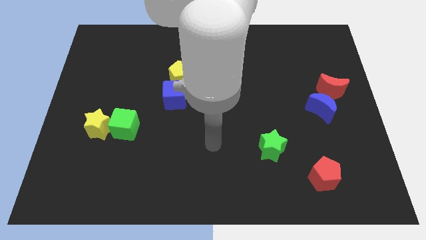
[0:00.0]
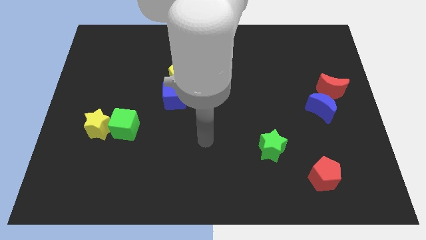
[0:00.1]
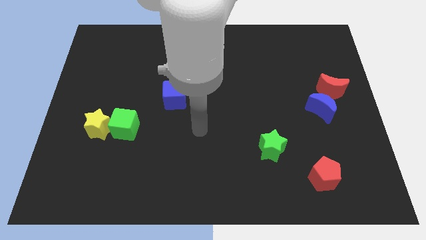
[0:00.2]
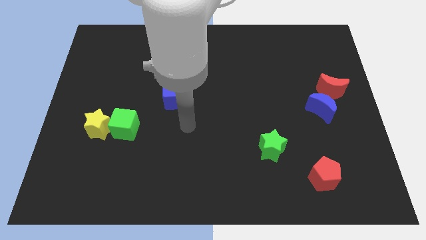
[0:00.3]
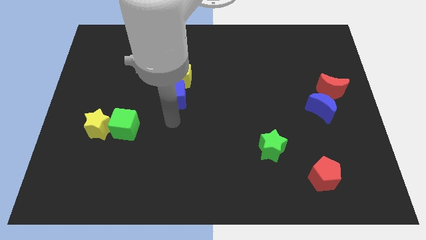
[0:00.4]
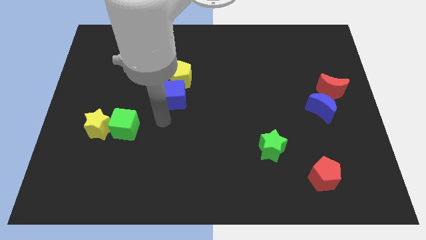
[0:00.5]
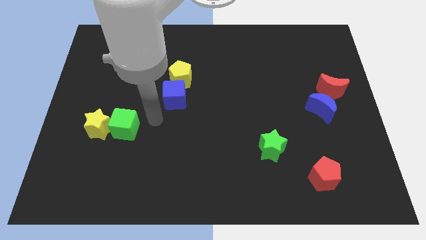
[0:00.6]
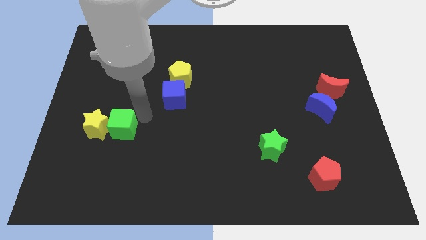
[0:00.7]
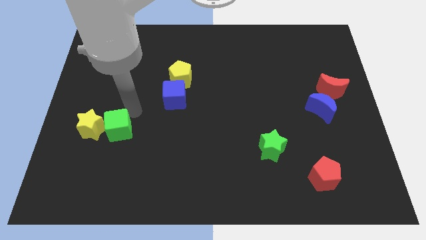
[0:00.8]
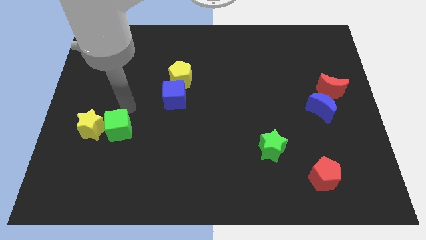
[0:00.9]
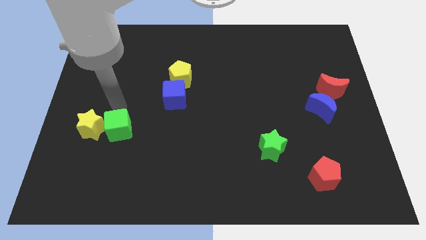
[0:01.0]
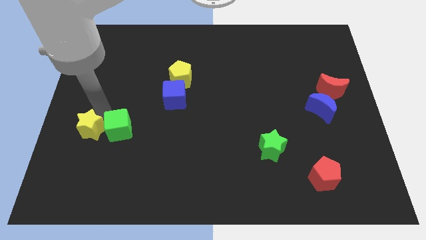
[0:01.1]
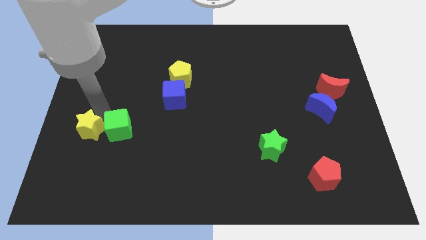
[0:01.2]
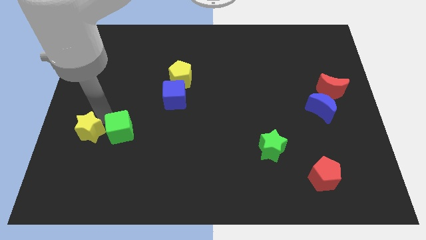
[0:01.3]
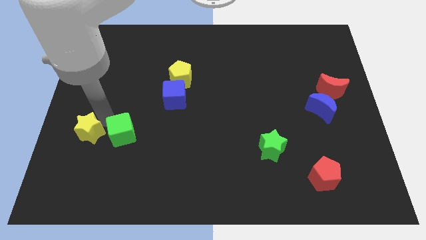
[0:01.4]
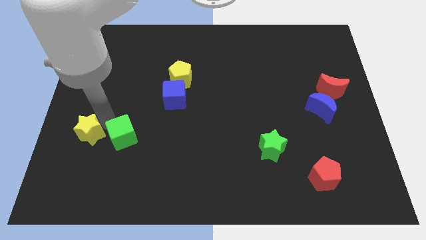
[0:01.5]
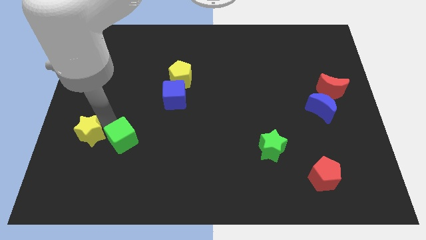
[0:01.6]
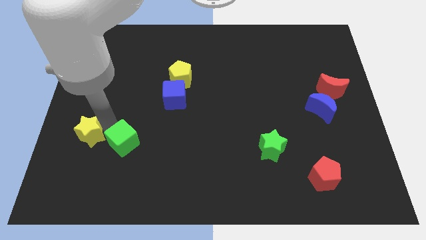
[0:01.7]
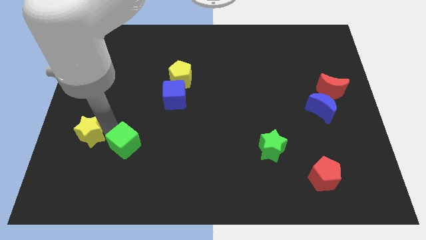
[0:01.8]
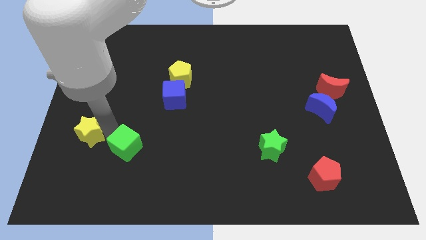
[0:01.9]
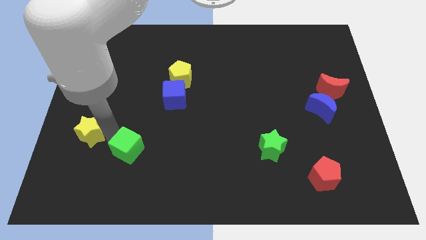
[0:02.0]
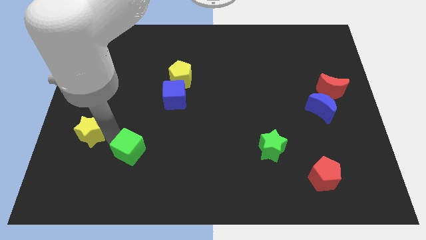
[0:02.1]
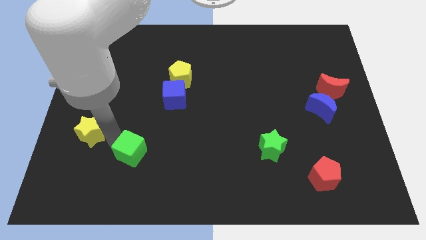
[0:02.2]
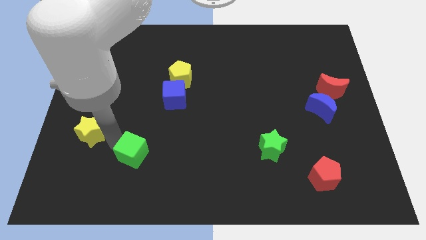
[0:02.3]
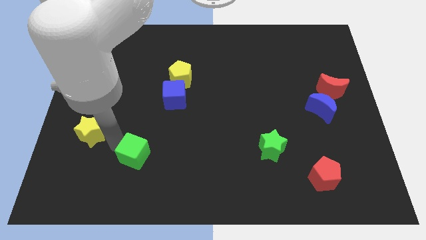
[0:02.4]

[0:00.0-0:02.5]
slide the green cube a little bit downwards and right

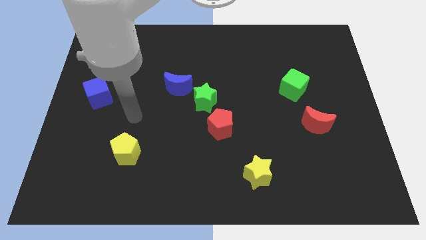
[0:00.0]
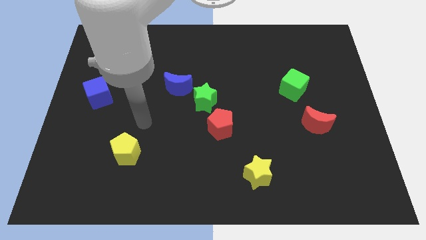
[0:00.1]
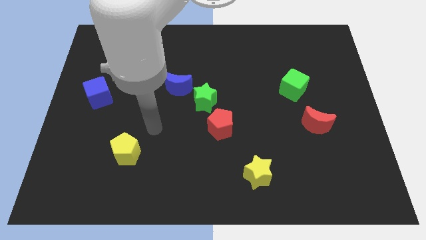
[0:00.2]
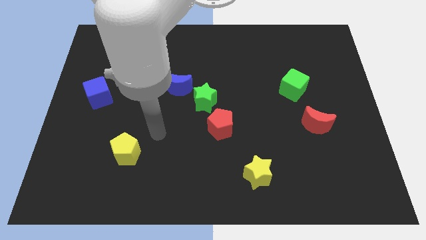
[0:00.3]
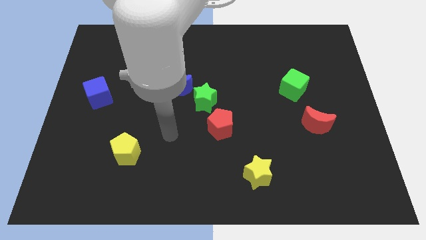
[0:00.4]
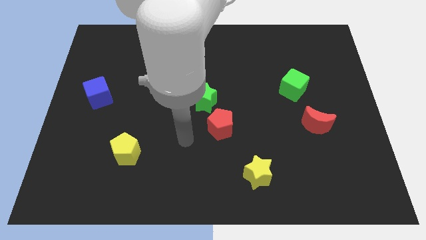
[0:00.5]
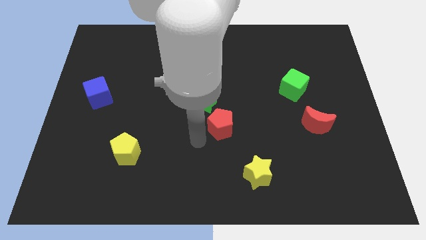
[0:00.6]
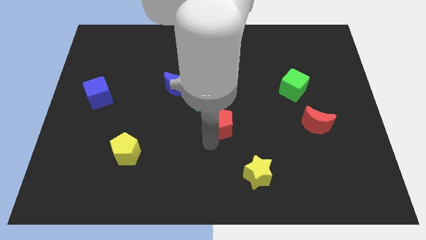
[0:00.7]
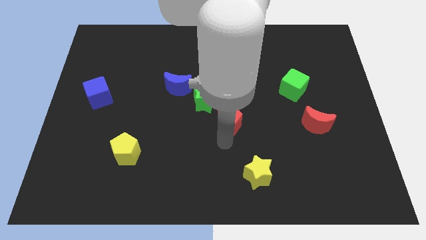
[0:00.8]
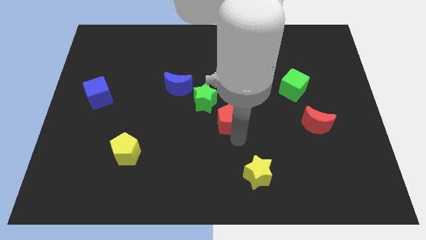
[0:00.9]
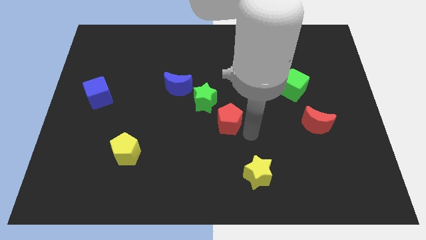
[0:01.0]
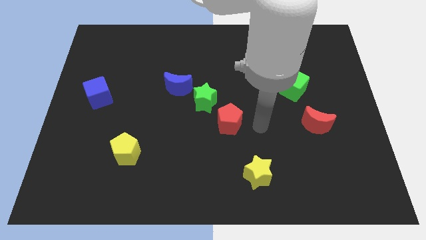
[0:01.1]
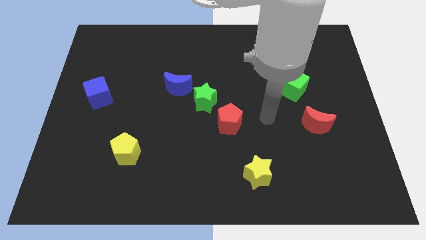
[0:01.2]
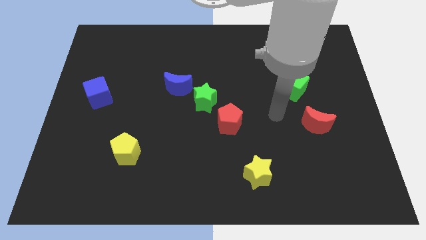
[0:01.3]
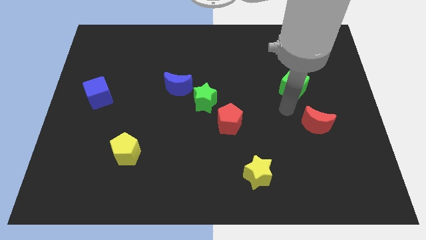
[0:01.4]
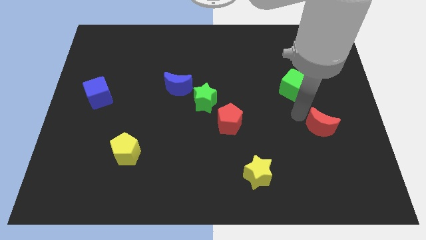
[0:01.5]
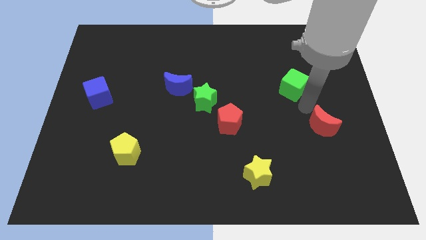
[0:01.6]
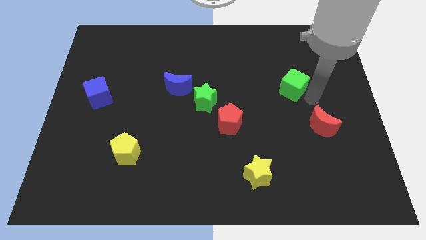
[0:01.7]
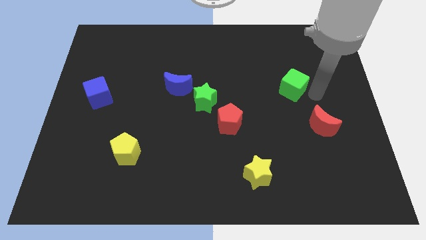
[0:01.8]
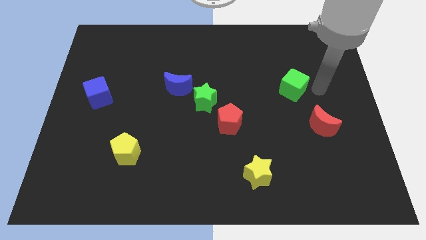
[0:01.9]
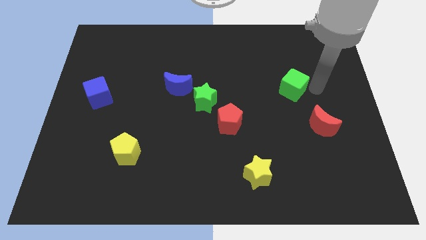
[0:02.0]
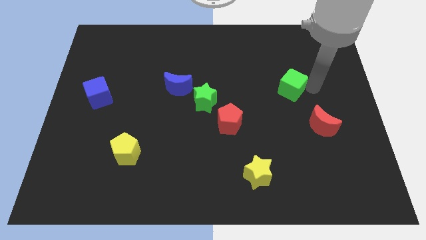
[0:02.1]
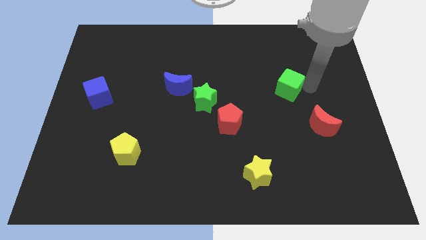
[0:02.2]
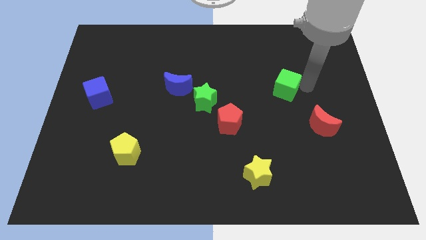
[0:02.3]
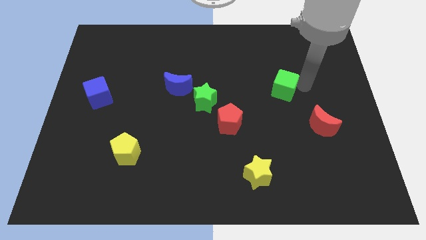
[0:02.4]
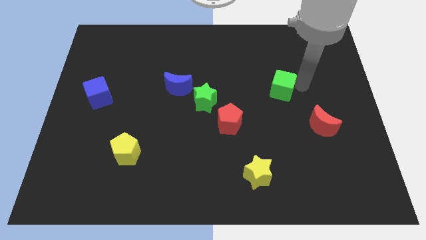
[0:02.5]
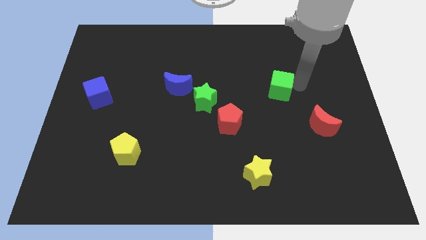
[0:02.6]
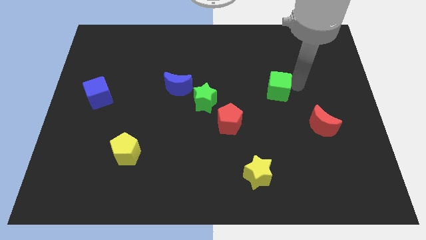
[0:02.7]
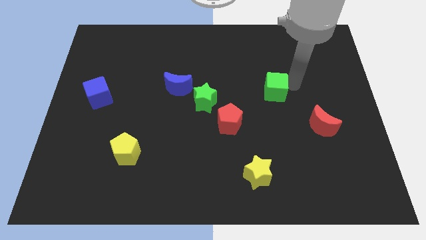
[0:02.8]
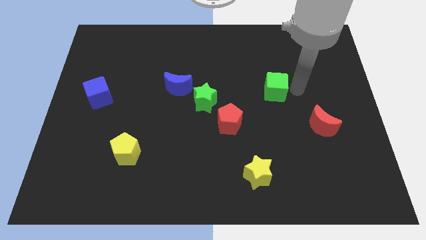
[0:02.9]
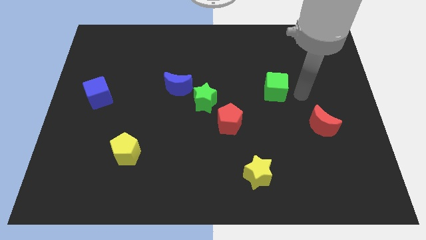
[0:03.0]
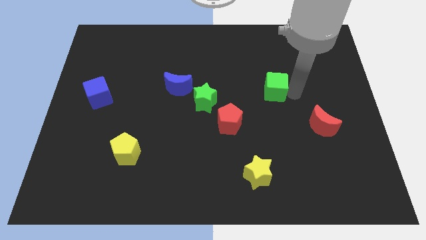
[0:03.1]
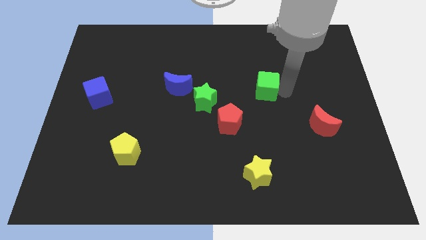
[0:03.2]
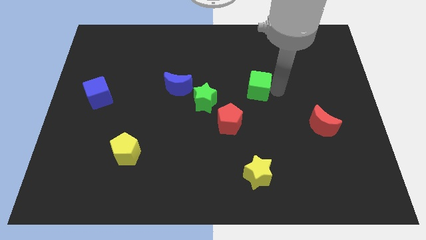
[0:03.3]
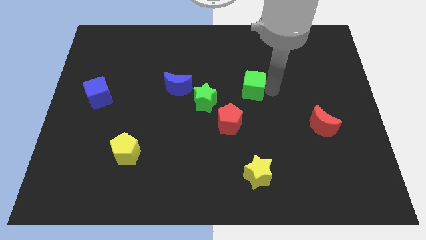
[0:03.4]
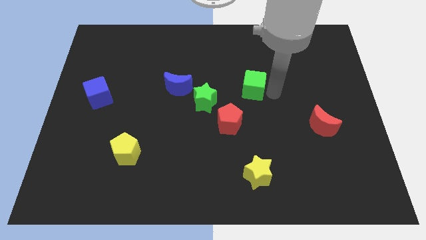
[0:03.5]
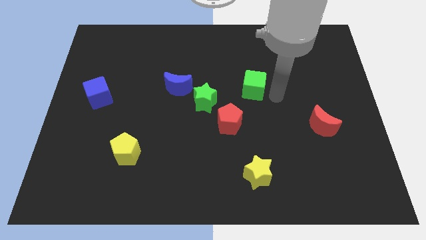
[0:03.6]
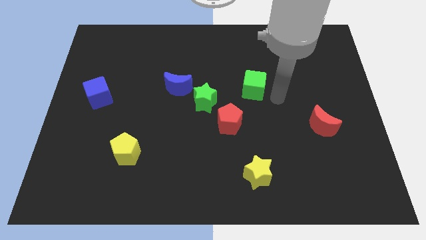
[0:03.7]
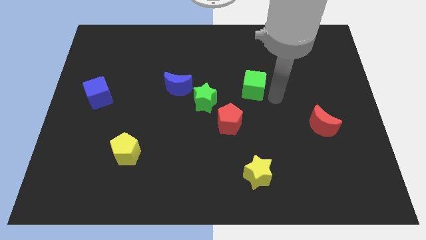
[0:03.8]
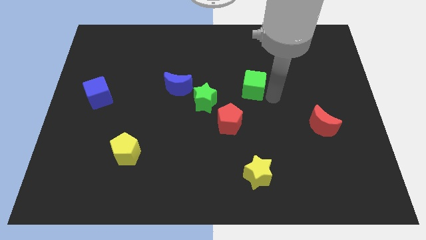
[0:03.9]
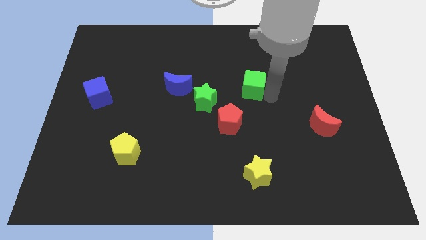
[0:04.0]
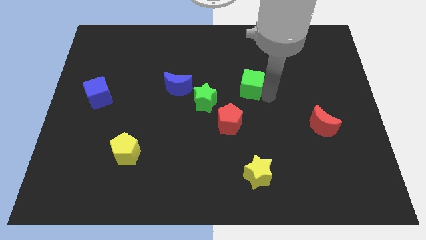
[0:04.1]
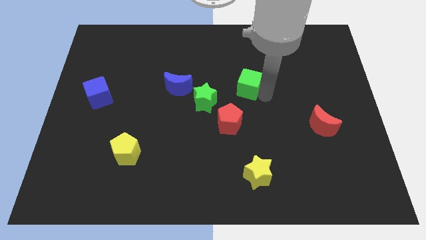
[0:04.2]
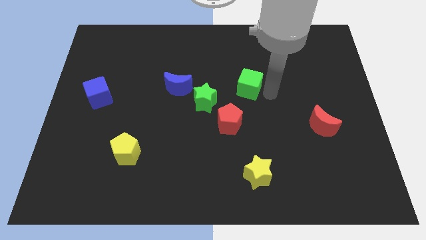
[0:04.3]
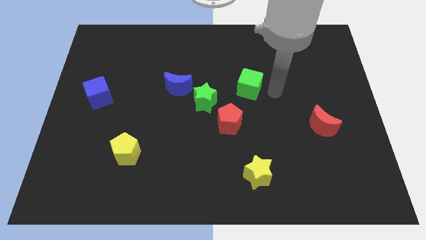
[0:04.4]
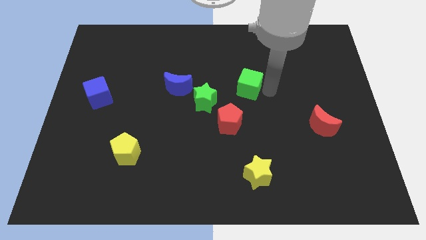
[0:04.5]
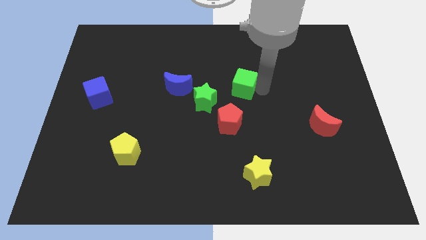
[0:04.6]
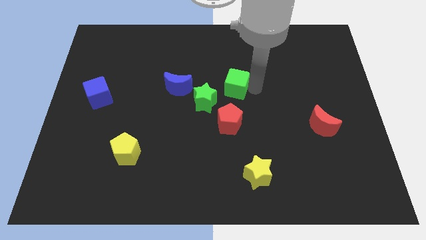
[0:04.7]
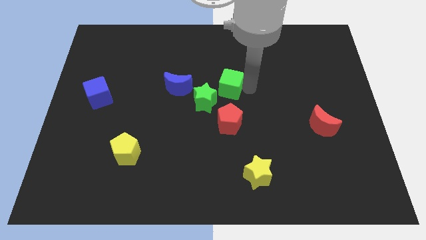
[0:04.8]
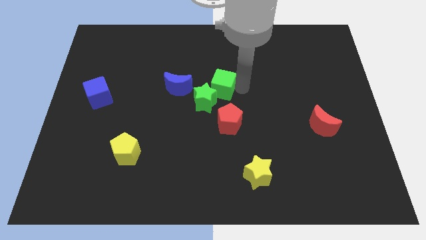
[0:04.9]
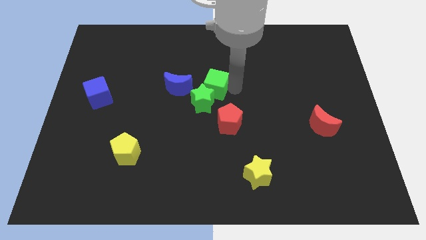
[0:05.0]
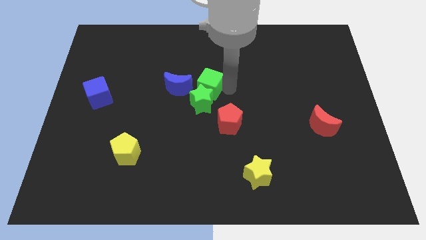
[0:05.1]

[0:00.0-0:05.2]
slide the green cube left
